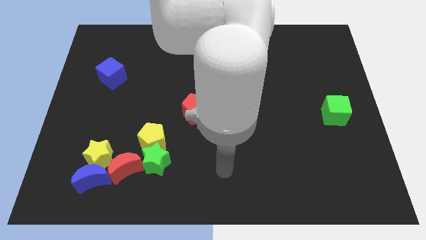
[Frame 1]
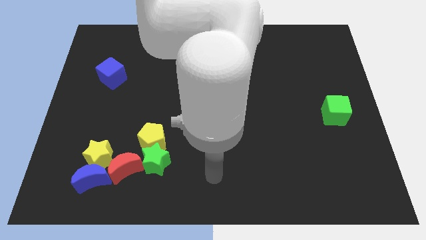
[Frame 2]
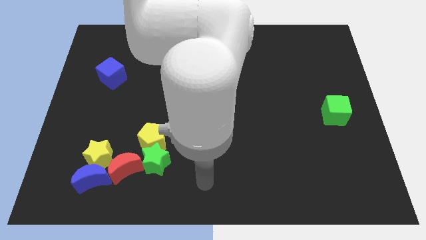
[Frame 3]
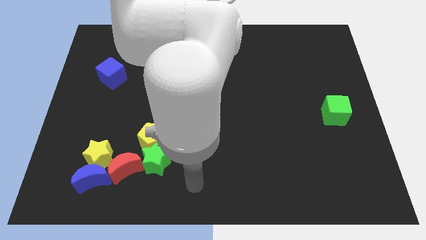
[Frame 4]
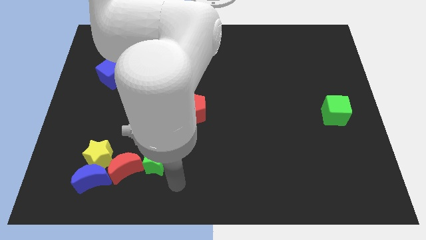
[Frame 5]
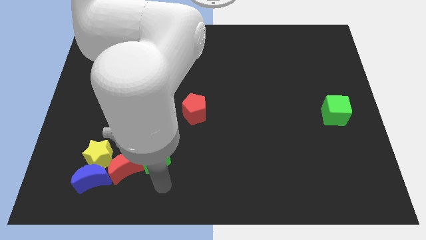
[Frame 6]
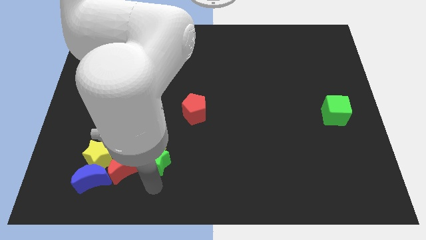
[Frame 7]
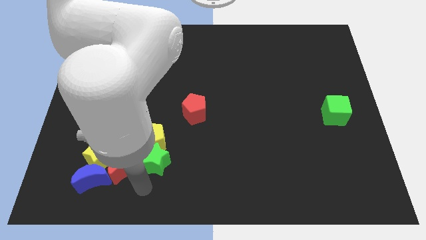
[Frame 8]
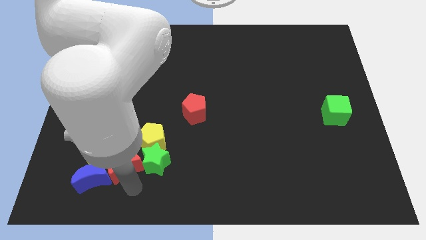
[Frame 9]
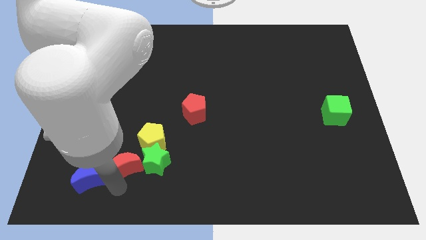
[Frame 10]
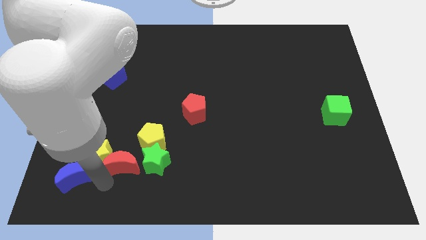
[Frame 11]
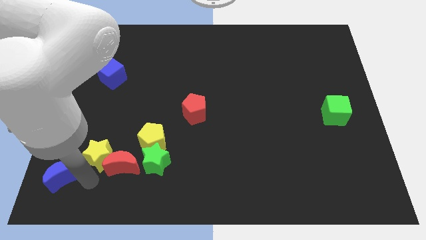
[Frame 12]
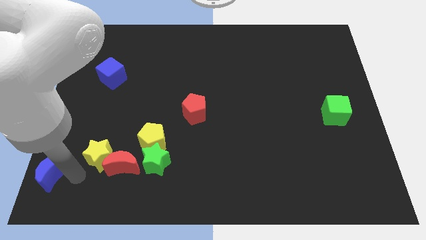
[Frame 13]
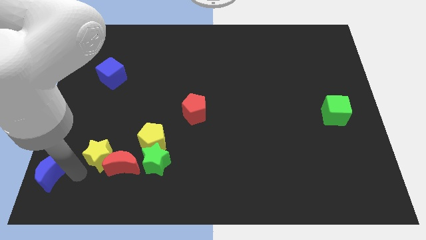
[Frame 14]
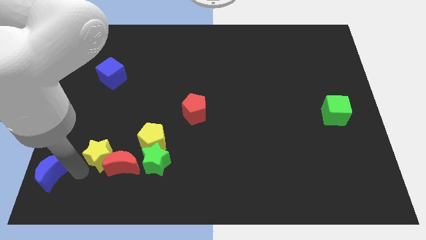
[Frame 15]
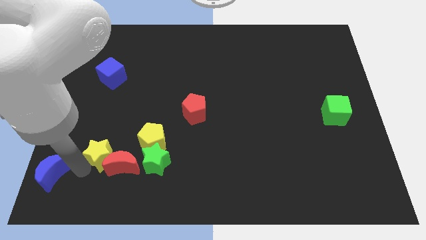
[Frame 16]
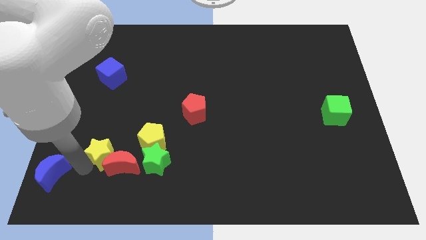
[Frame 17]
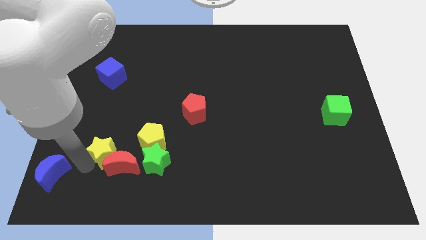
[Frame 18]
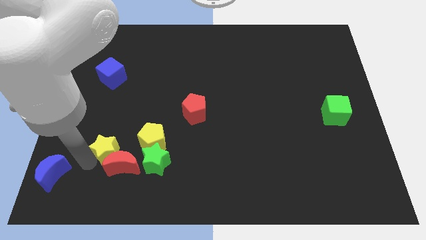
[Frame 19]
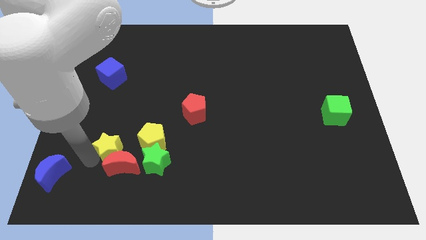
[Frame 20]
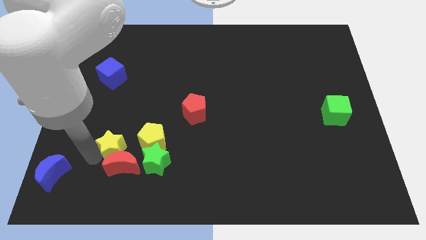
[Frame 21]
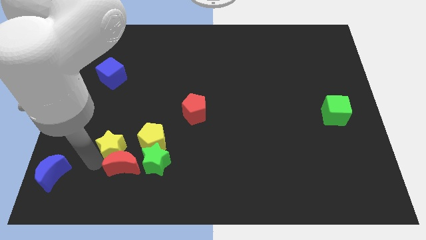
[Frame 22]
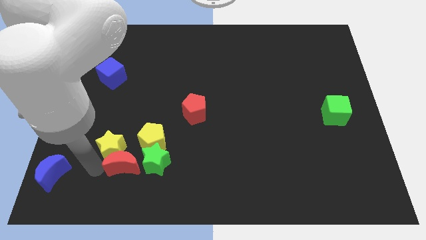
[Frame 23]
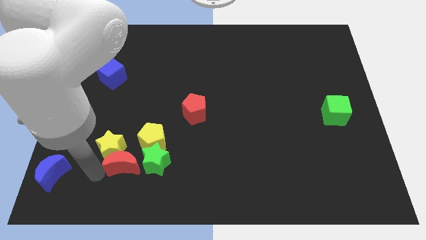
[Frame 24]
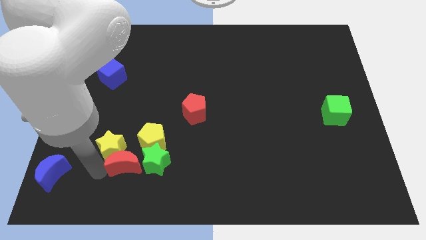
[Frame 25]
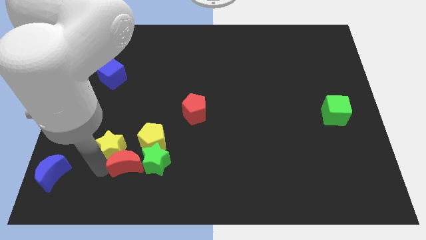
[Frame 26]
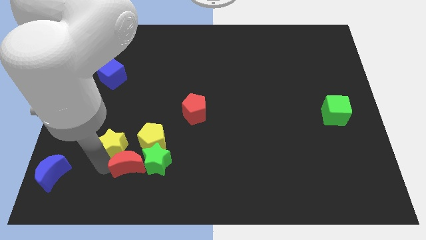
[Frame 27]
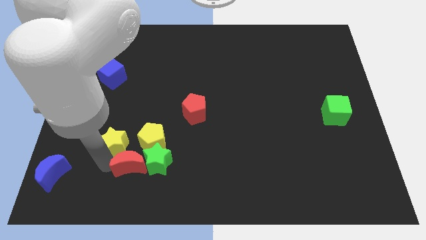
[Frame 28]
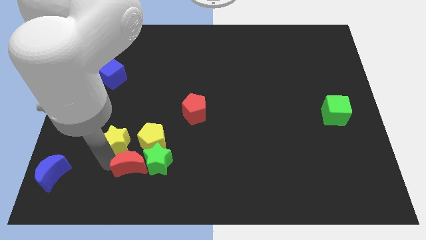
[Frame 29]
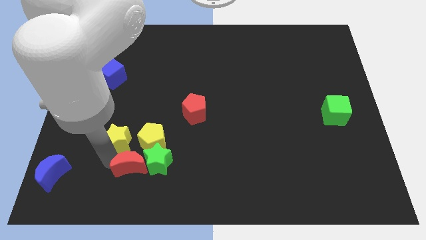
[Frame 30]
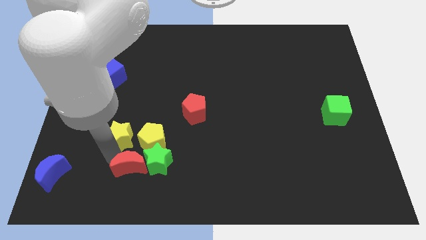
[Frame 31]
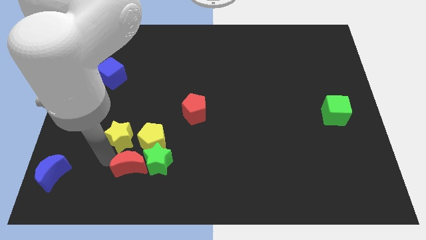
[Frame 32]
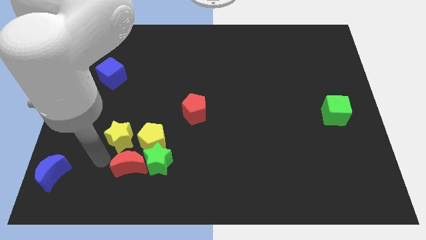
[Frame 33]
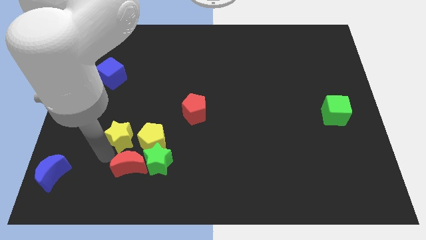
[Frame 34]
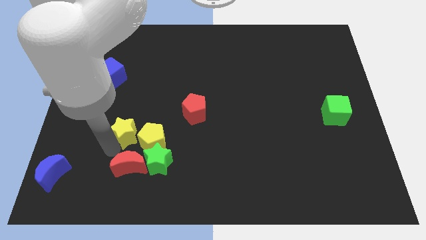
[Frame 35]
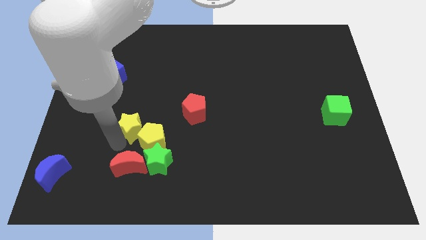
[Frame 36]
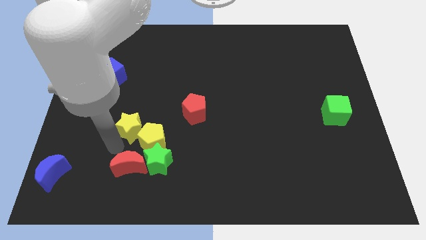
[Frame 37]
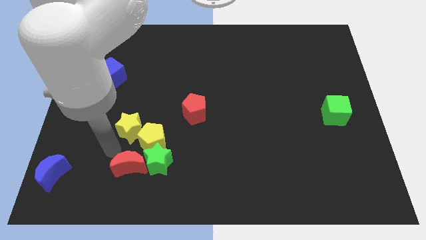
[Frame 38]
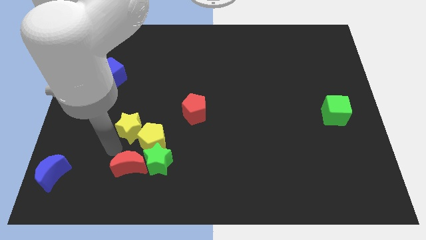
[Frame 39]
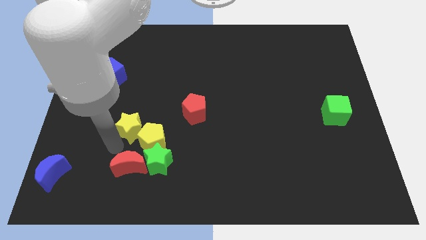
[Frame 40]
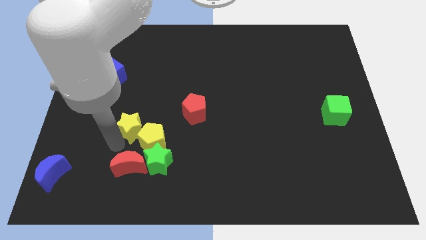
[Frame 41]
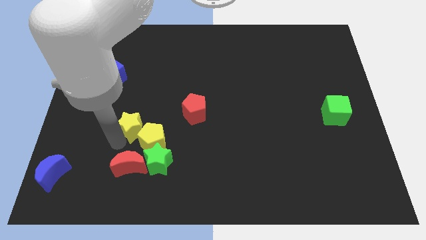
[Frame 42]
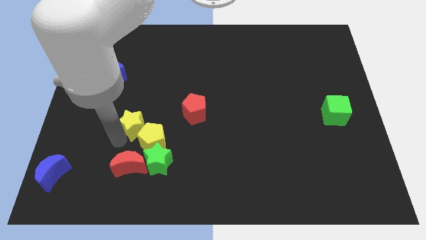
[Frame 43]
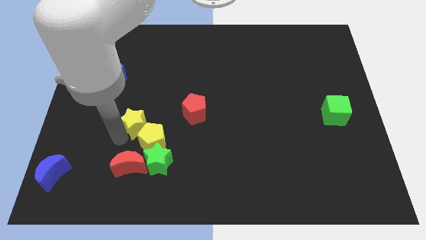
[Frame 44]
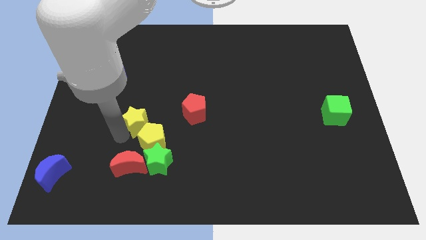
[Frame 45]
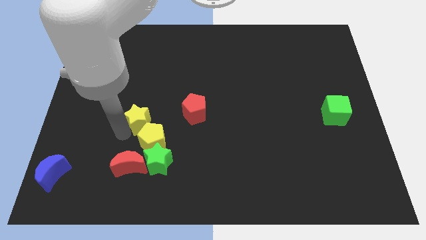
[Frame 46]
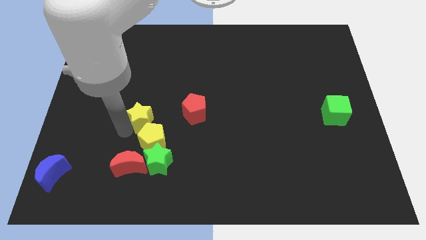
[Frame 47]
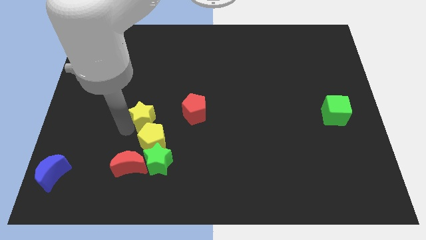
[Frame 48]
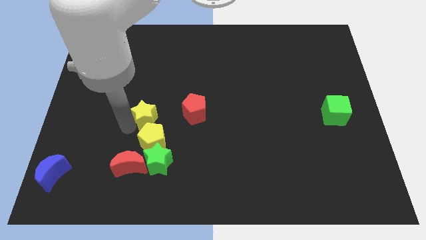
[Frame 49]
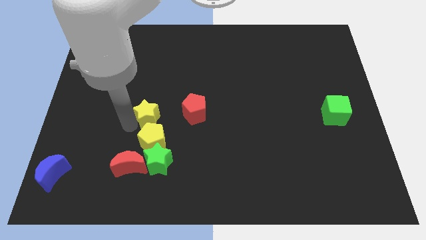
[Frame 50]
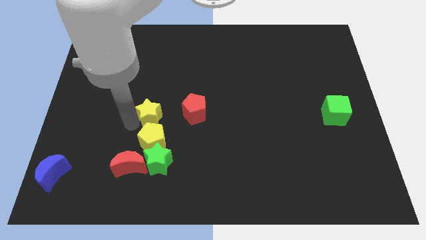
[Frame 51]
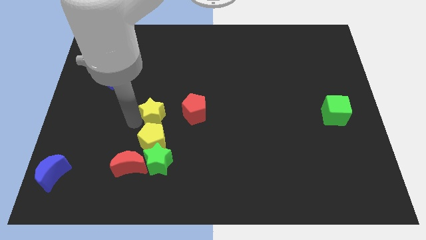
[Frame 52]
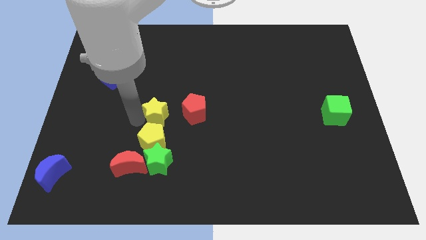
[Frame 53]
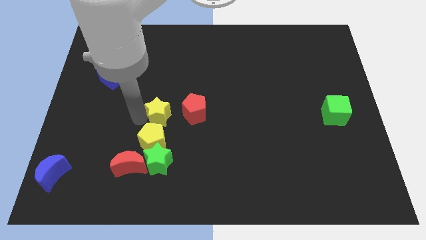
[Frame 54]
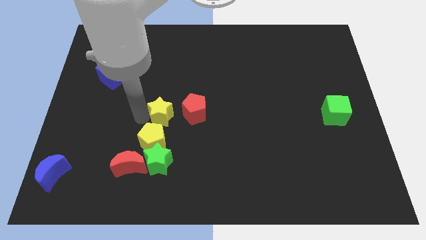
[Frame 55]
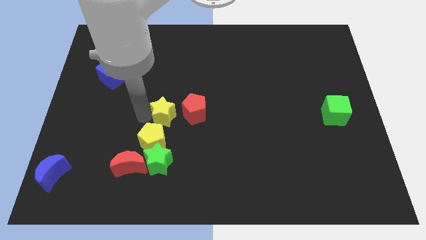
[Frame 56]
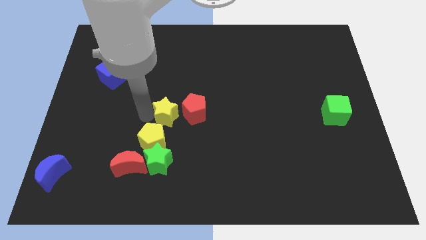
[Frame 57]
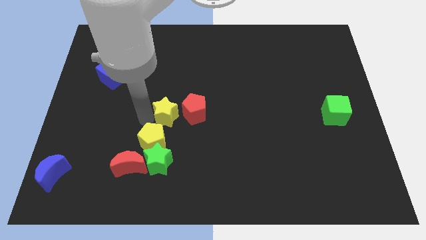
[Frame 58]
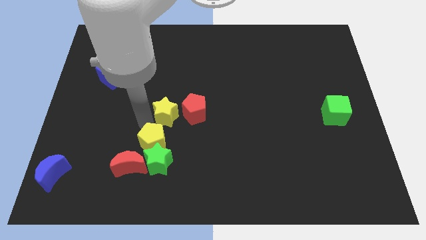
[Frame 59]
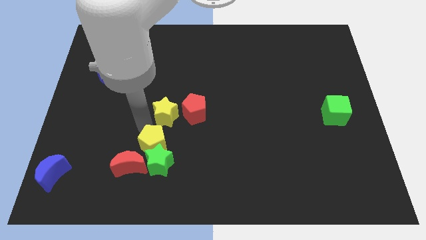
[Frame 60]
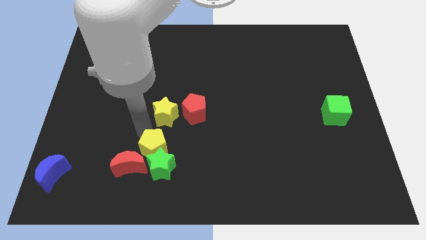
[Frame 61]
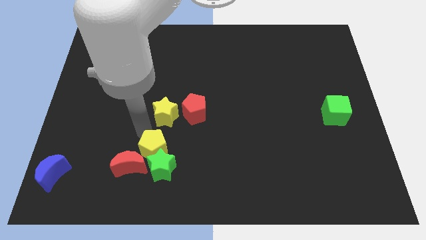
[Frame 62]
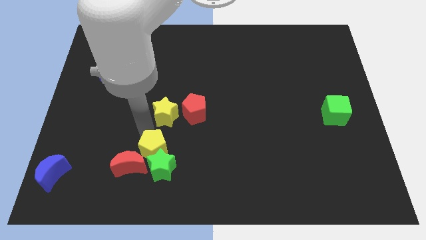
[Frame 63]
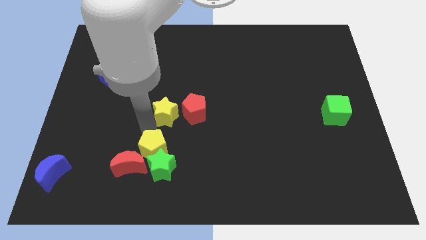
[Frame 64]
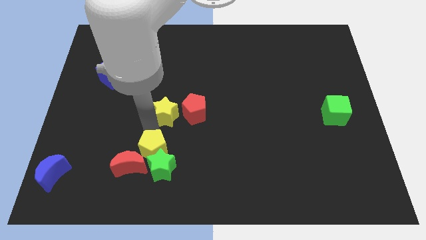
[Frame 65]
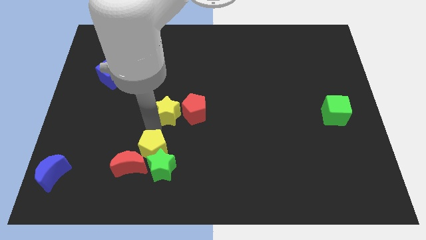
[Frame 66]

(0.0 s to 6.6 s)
move the yellow star next to the red pentagon
